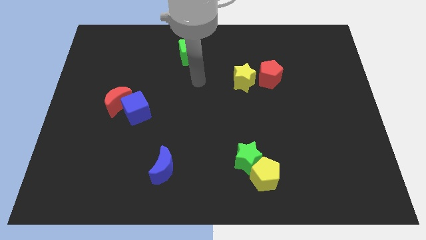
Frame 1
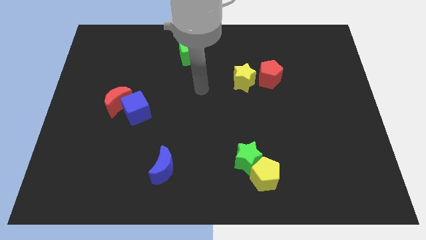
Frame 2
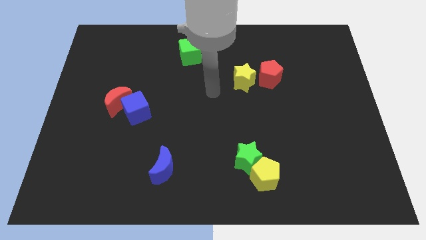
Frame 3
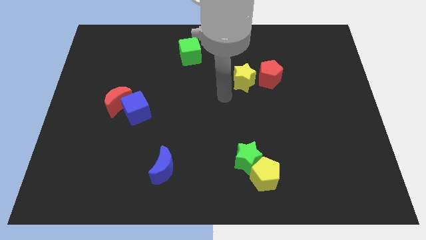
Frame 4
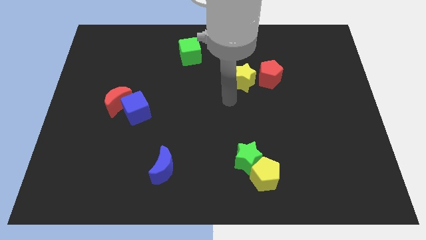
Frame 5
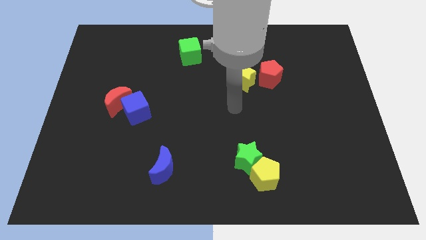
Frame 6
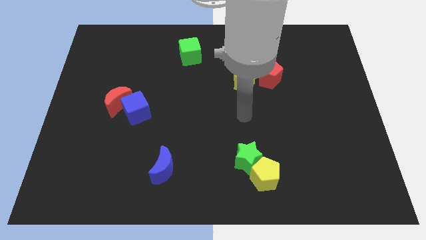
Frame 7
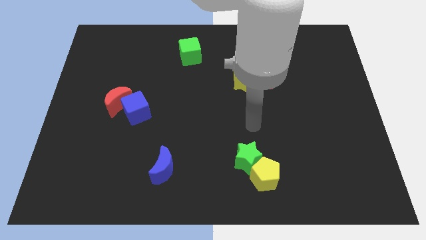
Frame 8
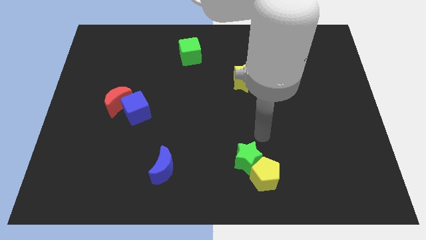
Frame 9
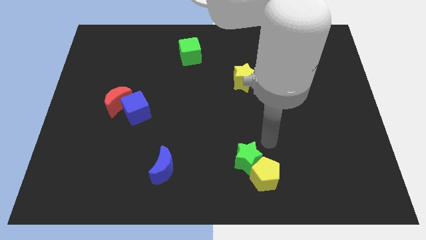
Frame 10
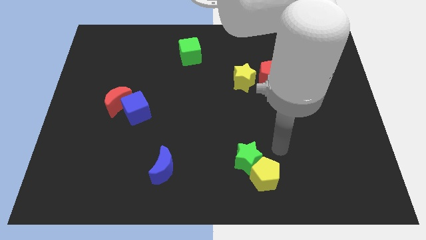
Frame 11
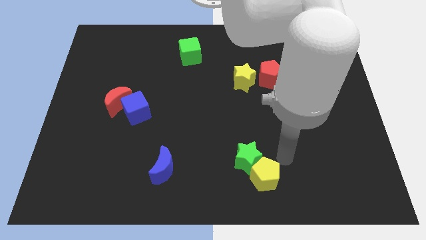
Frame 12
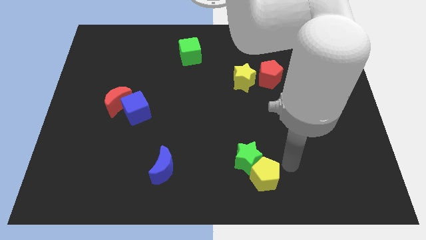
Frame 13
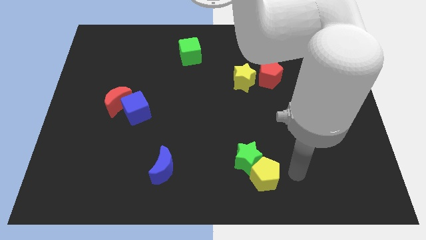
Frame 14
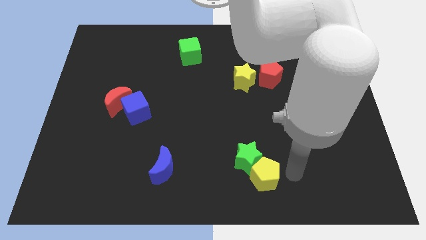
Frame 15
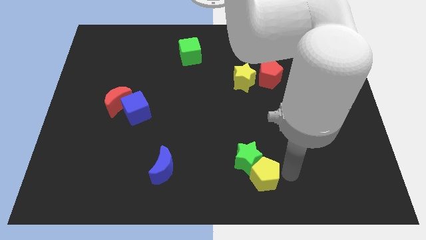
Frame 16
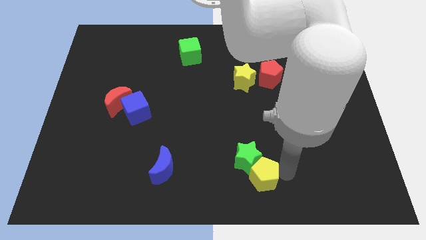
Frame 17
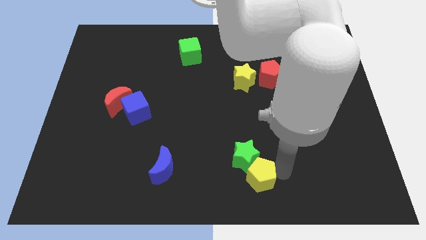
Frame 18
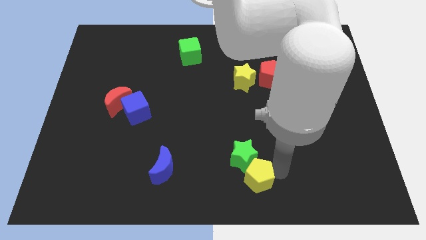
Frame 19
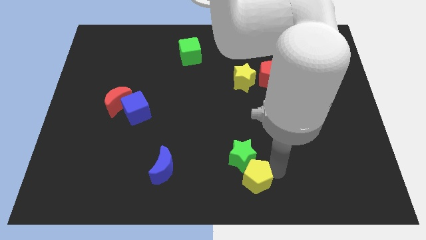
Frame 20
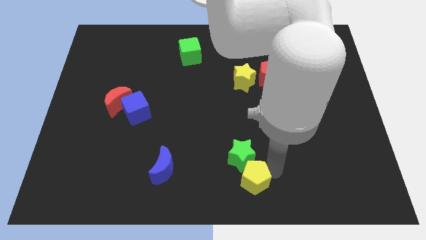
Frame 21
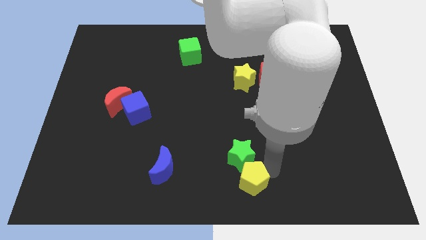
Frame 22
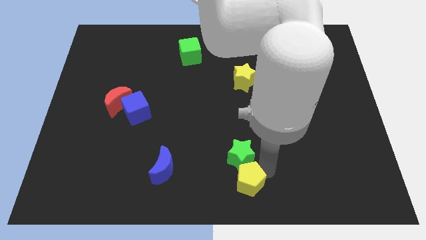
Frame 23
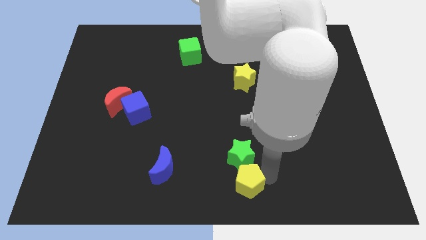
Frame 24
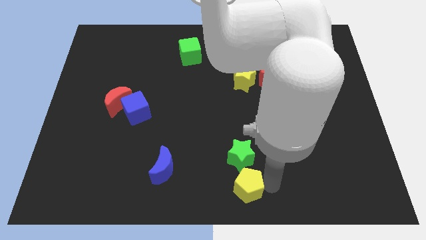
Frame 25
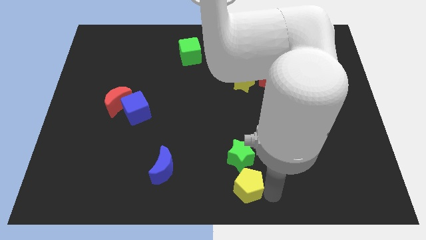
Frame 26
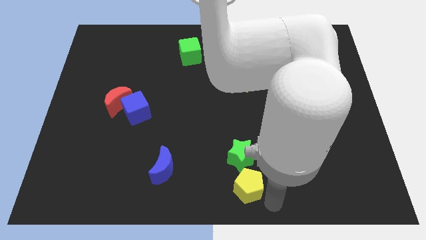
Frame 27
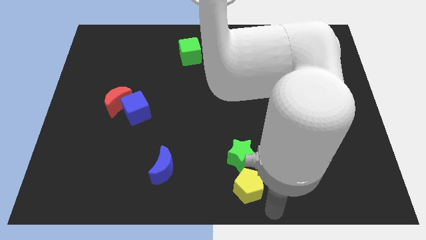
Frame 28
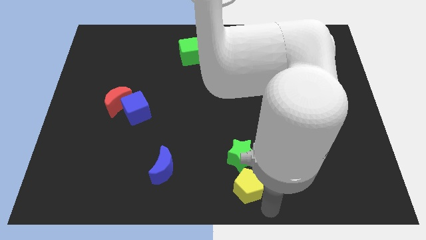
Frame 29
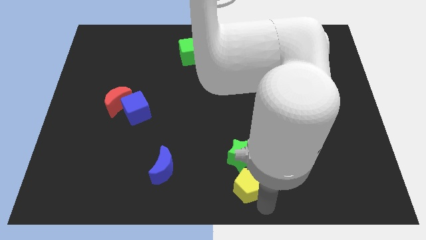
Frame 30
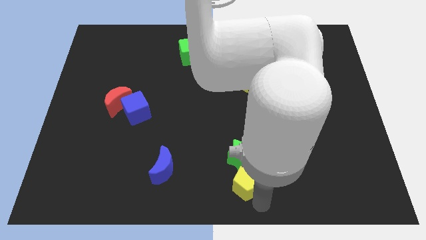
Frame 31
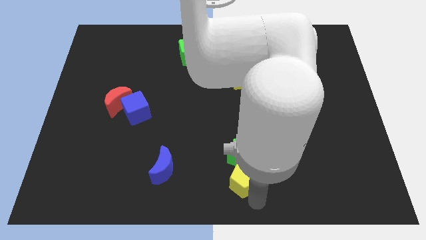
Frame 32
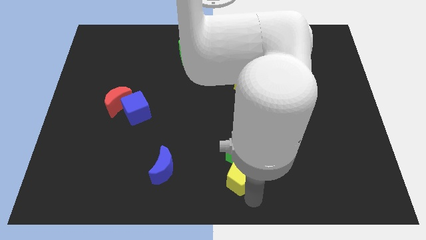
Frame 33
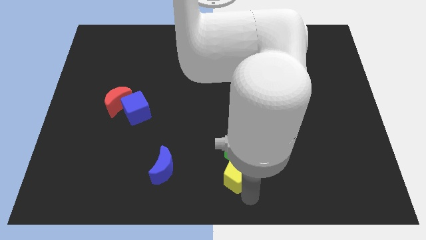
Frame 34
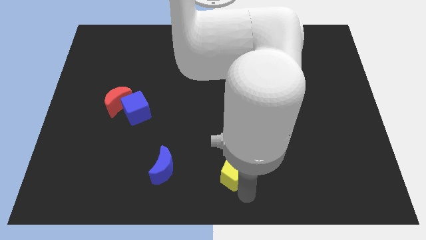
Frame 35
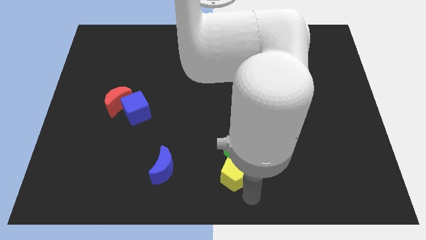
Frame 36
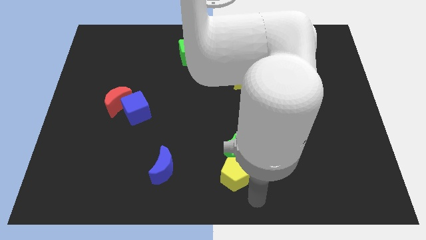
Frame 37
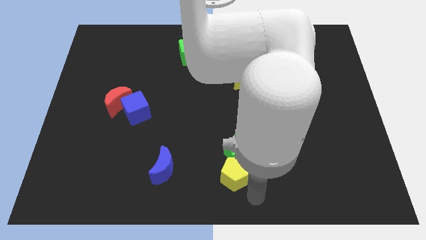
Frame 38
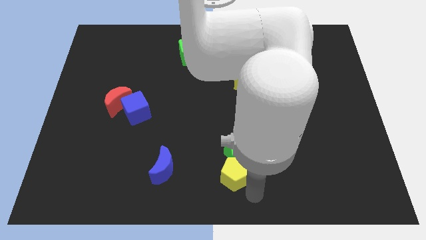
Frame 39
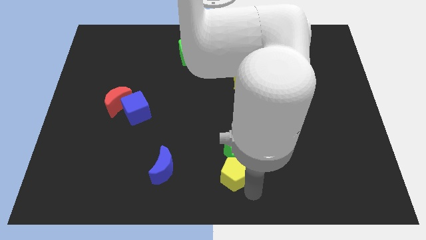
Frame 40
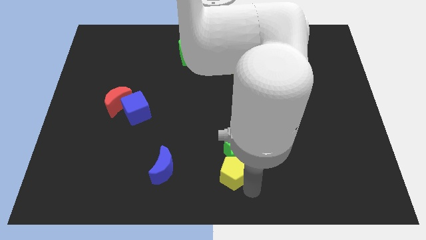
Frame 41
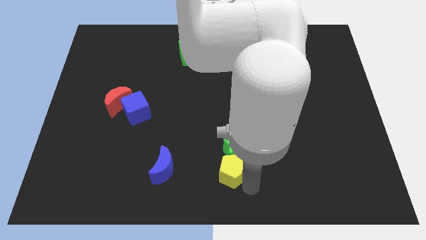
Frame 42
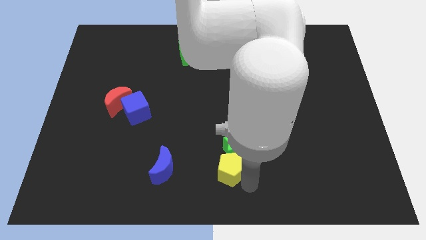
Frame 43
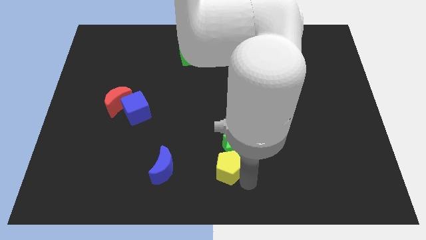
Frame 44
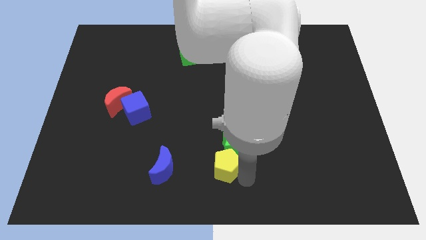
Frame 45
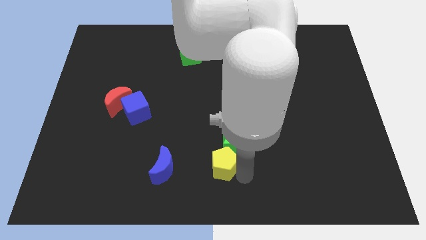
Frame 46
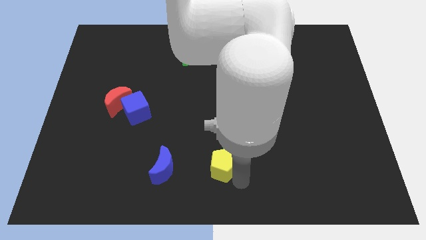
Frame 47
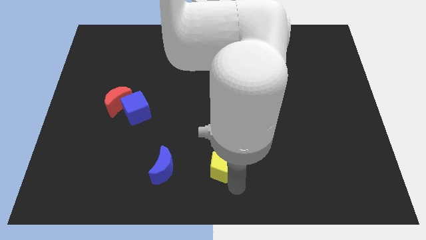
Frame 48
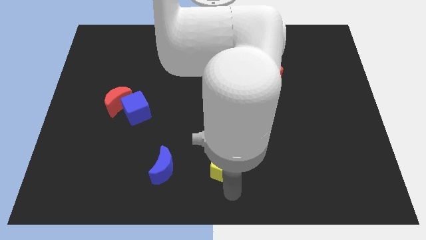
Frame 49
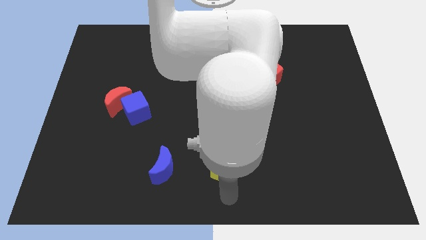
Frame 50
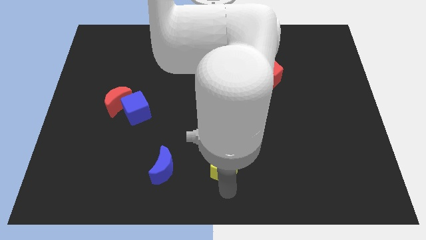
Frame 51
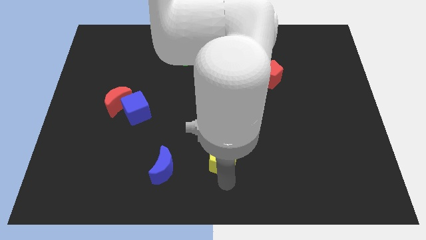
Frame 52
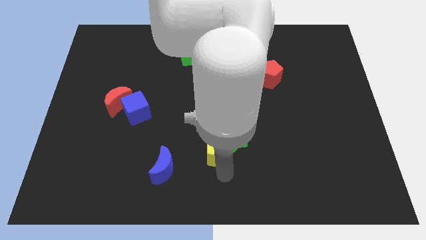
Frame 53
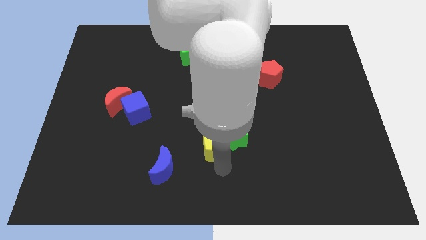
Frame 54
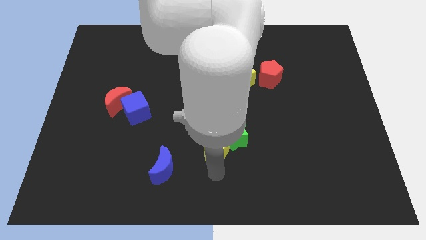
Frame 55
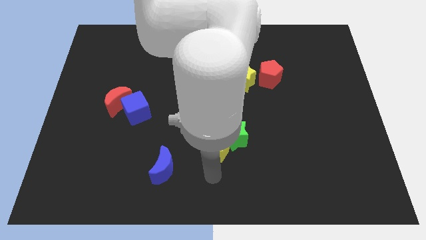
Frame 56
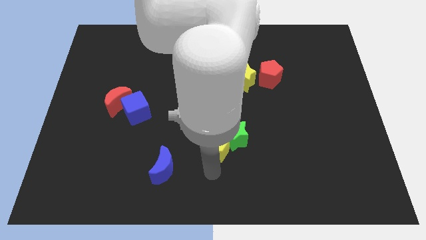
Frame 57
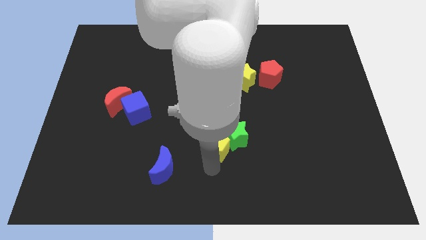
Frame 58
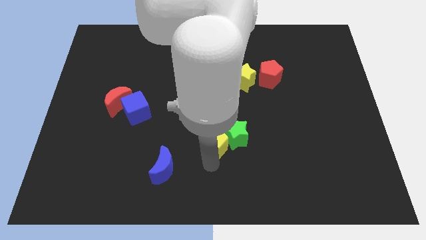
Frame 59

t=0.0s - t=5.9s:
move the yellow pentagon to the middle of the board

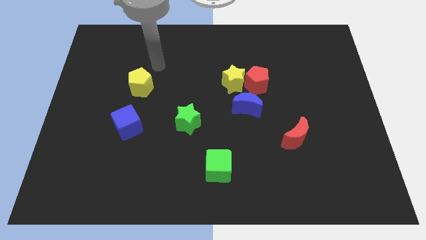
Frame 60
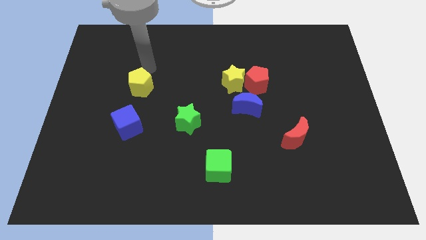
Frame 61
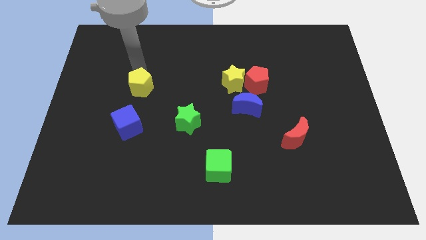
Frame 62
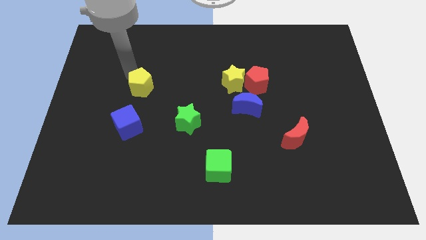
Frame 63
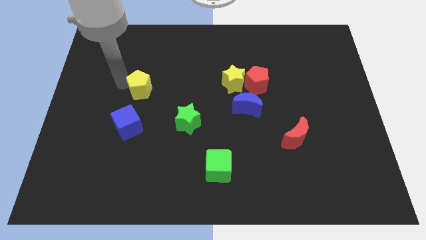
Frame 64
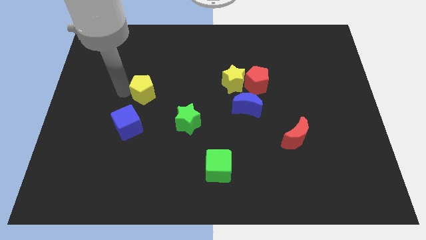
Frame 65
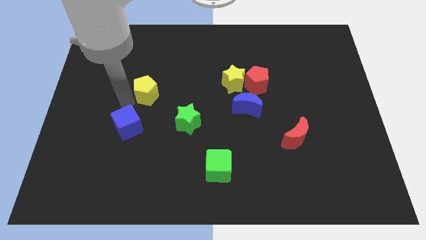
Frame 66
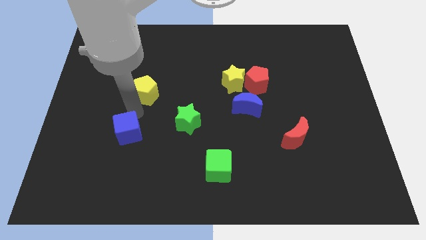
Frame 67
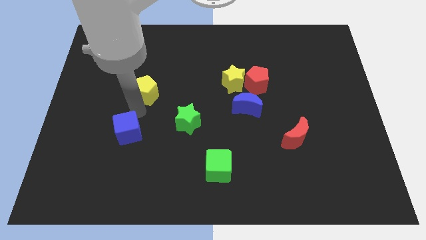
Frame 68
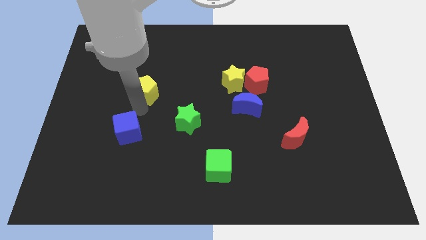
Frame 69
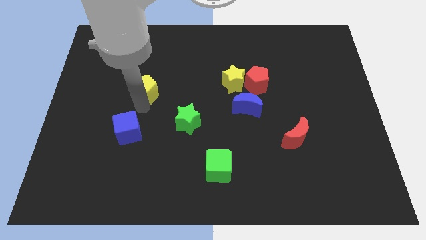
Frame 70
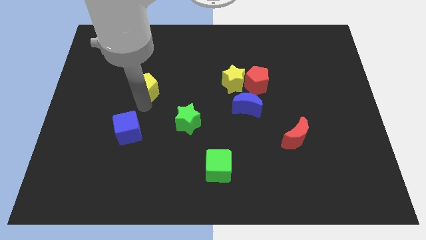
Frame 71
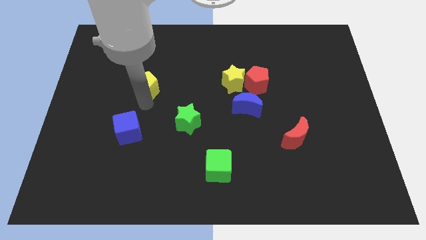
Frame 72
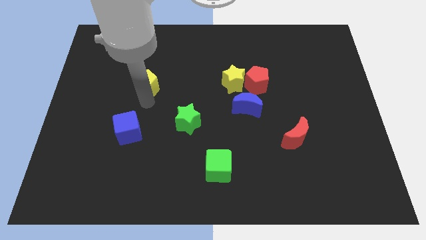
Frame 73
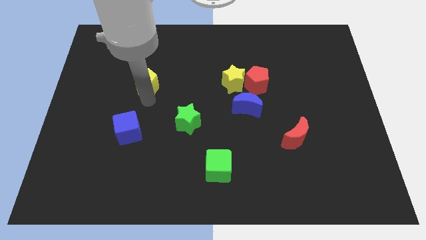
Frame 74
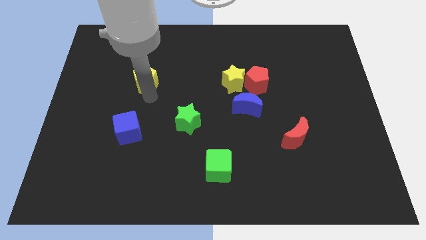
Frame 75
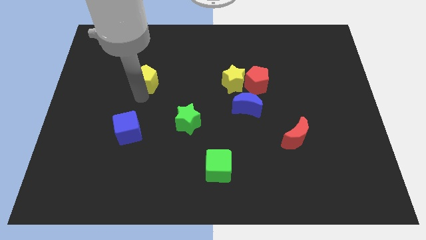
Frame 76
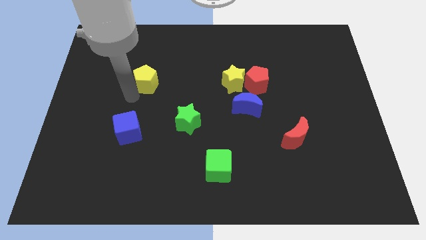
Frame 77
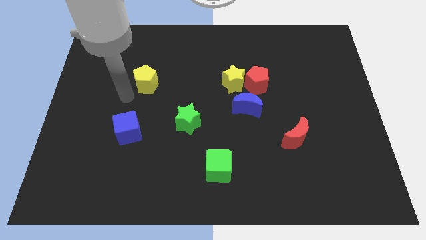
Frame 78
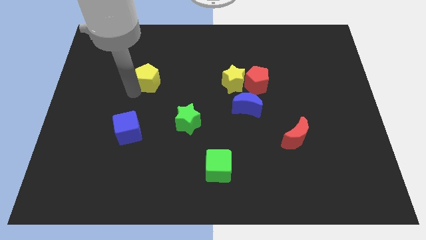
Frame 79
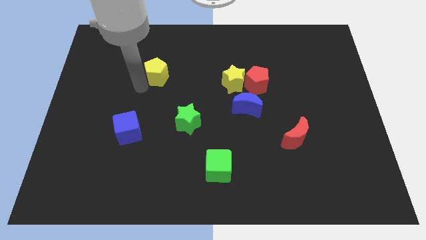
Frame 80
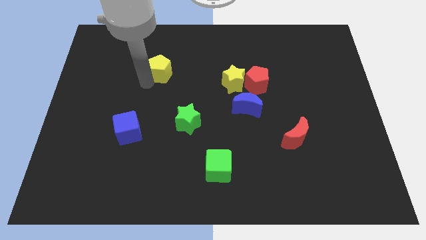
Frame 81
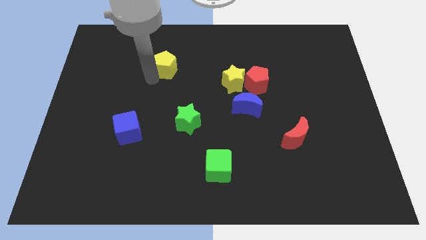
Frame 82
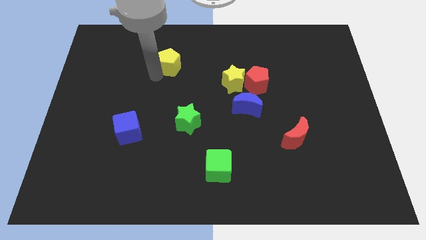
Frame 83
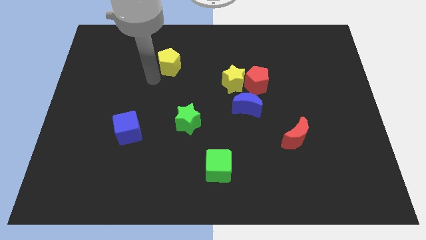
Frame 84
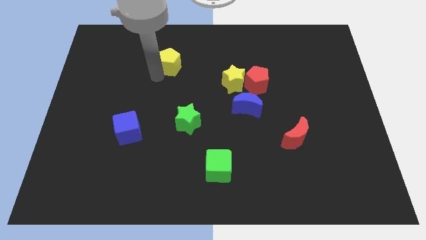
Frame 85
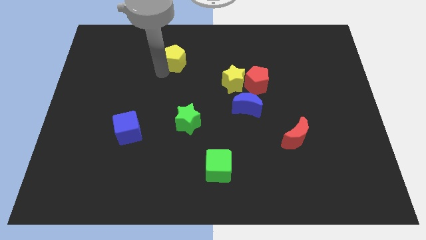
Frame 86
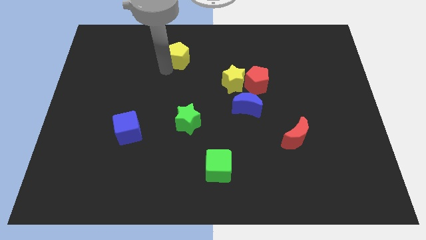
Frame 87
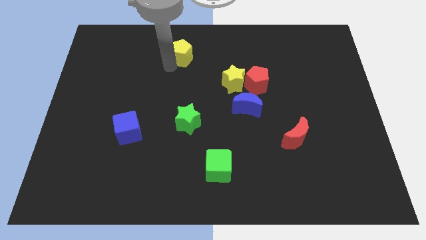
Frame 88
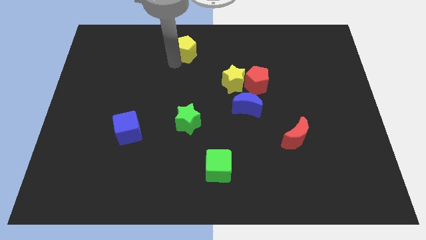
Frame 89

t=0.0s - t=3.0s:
push the yellow pentagon to the top
